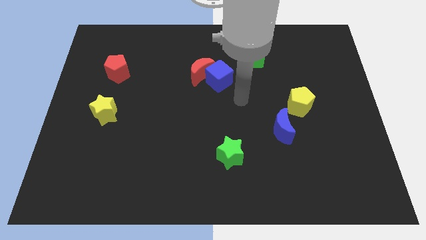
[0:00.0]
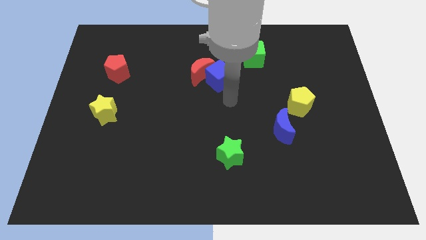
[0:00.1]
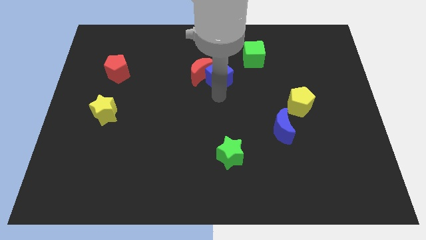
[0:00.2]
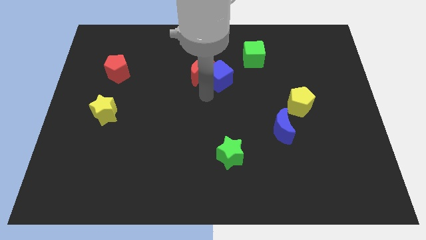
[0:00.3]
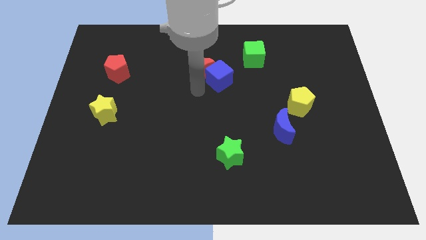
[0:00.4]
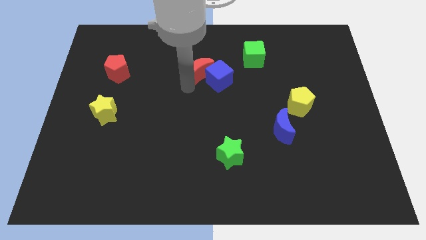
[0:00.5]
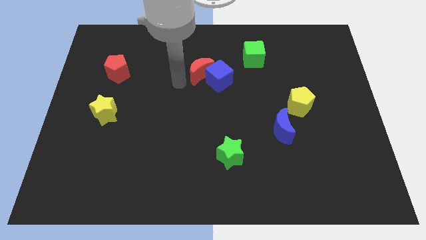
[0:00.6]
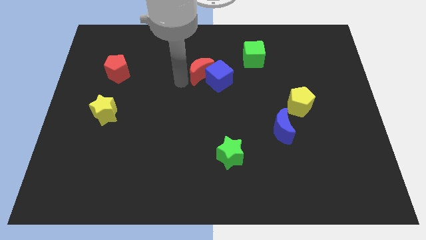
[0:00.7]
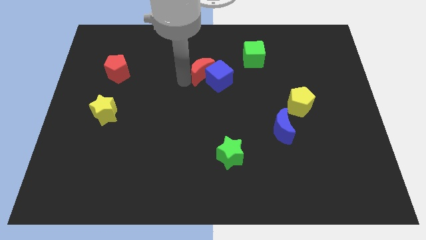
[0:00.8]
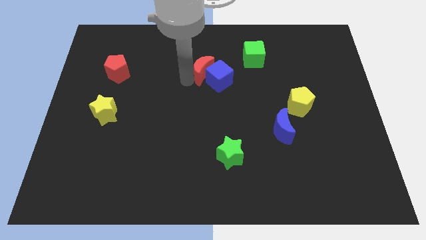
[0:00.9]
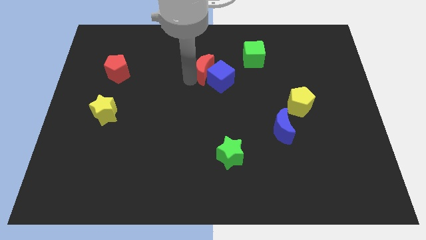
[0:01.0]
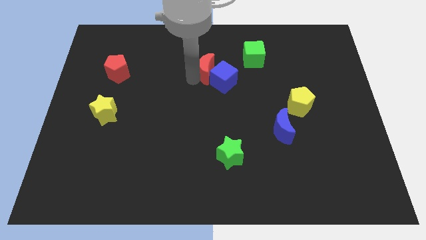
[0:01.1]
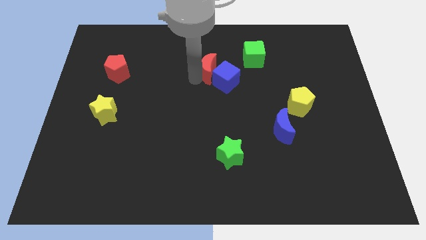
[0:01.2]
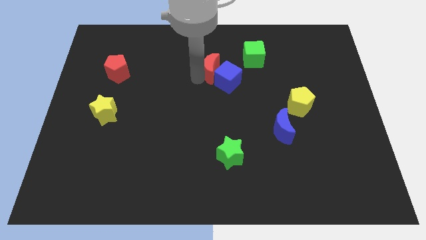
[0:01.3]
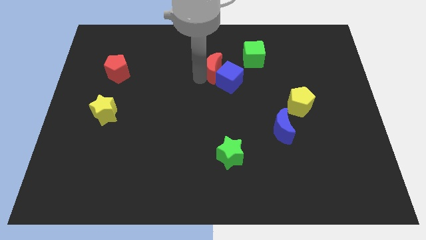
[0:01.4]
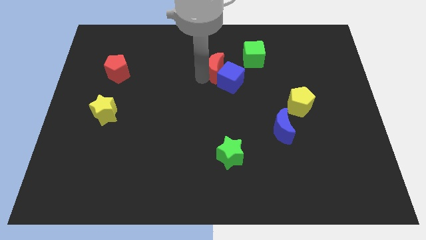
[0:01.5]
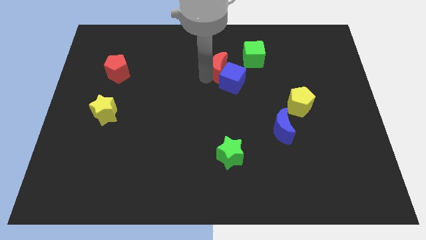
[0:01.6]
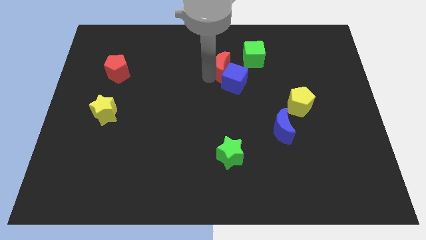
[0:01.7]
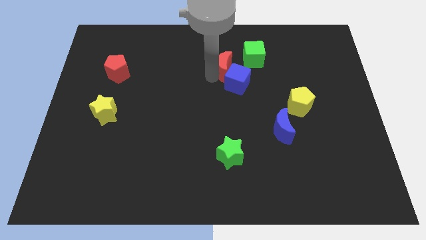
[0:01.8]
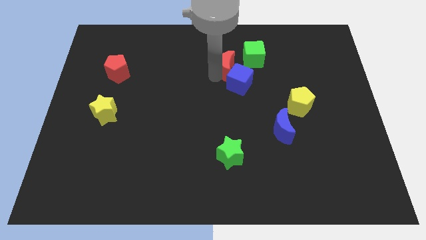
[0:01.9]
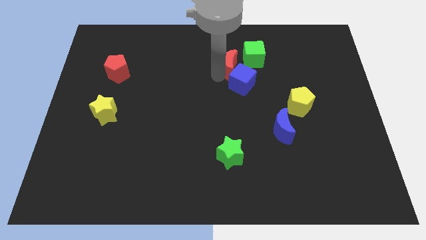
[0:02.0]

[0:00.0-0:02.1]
slightly push the red moon to the right

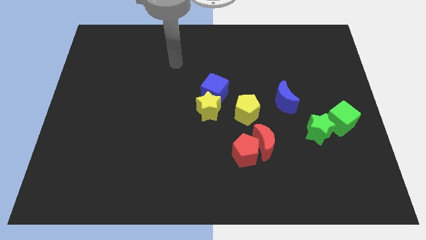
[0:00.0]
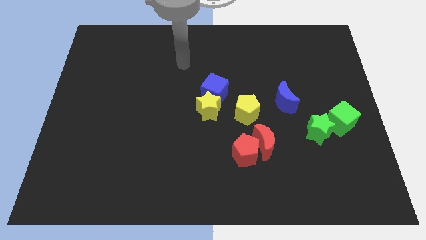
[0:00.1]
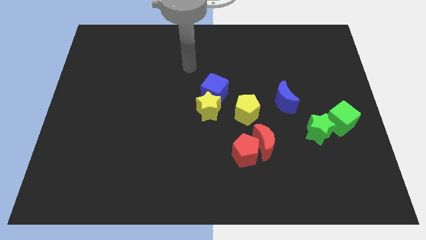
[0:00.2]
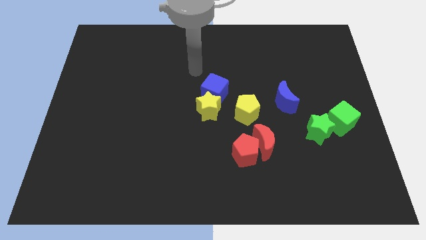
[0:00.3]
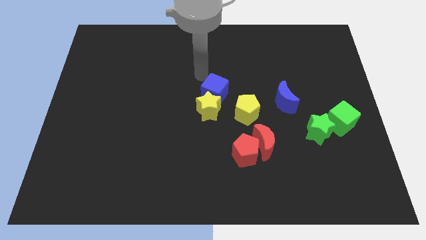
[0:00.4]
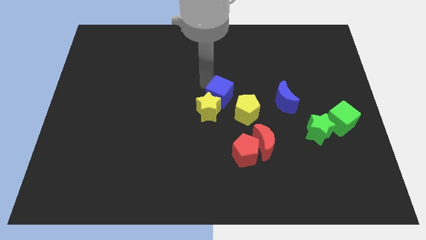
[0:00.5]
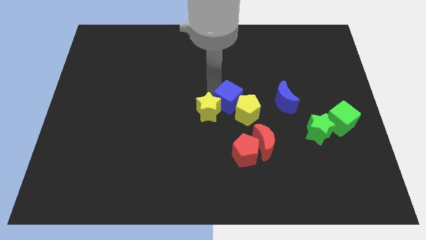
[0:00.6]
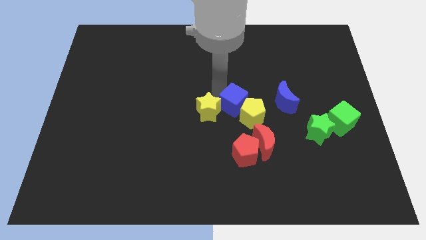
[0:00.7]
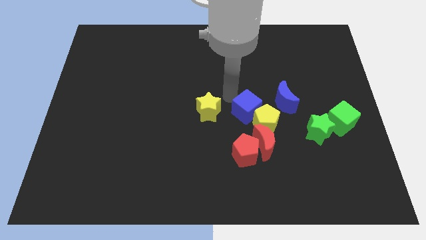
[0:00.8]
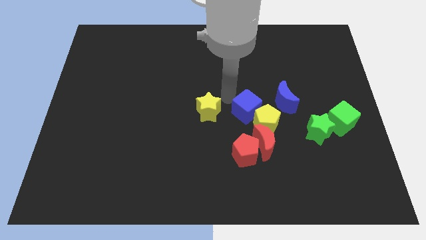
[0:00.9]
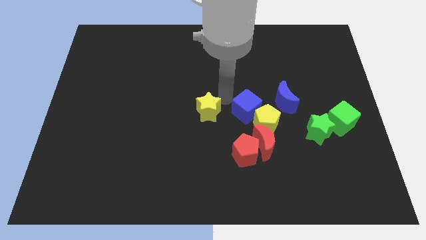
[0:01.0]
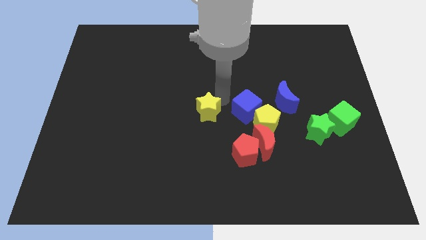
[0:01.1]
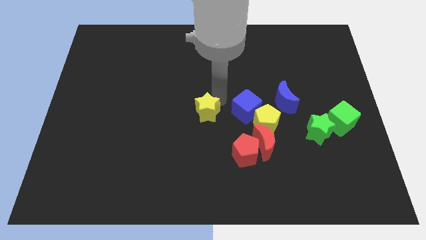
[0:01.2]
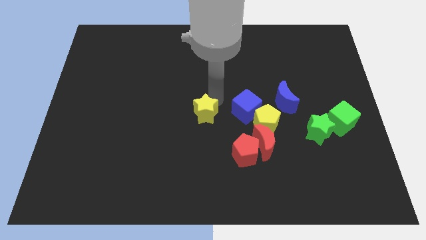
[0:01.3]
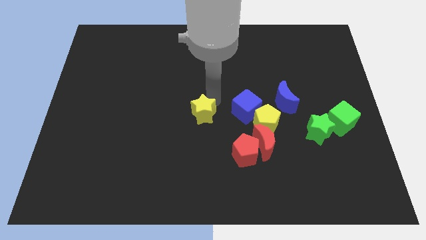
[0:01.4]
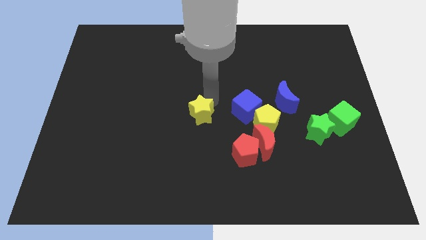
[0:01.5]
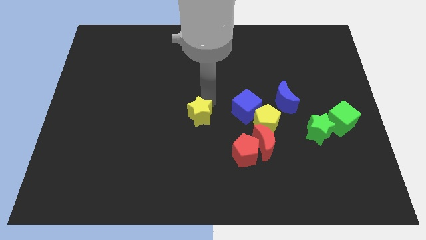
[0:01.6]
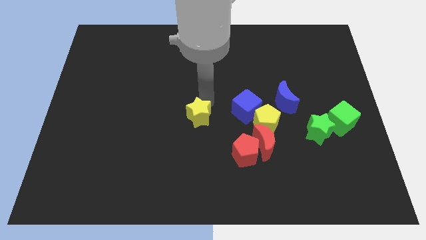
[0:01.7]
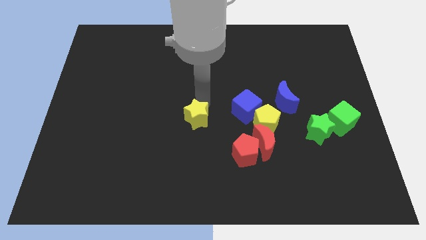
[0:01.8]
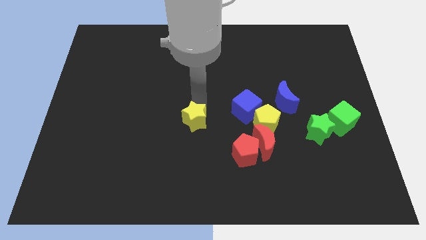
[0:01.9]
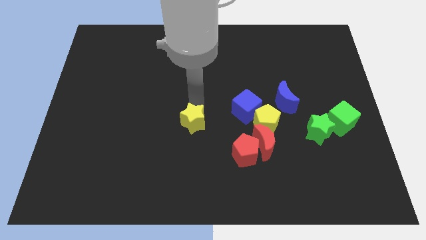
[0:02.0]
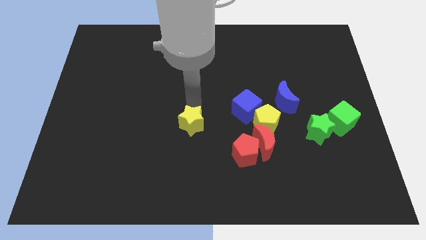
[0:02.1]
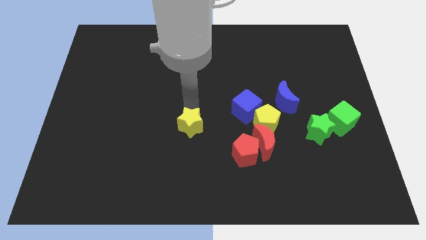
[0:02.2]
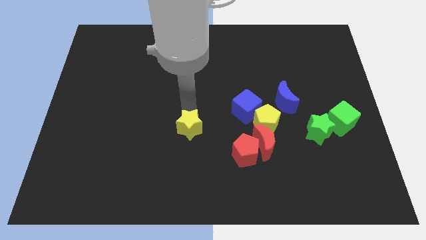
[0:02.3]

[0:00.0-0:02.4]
slightly push the yellow star down and left

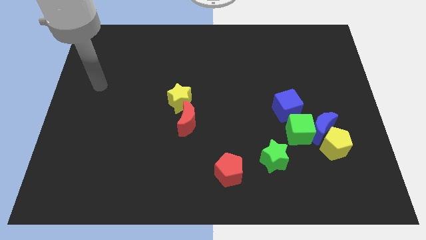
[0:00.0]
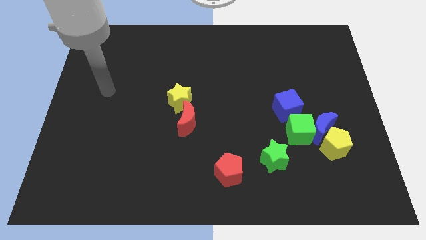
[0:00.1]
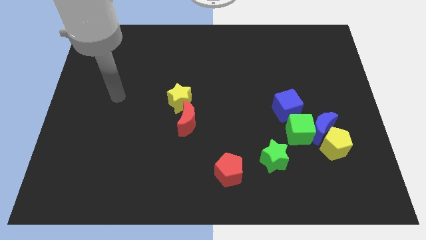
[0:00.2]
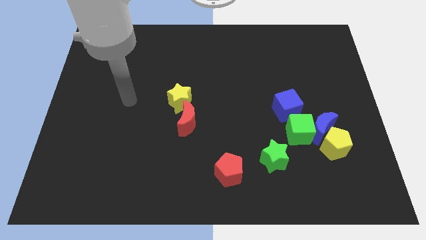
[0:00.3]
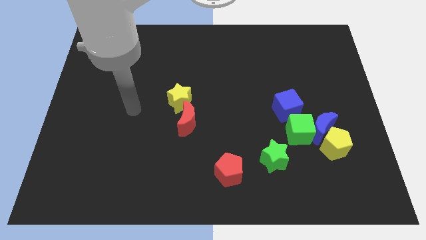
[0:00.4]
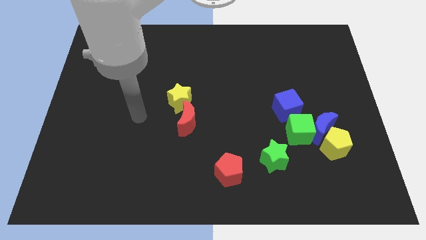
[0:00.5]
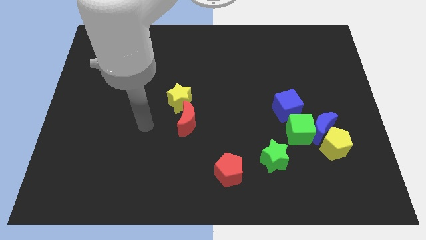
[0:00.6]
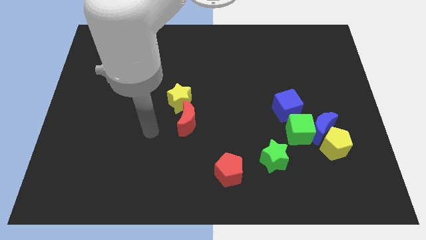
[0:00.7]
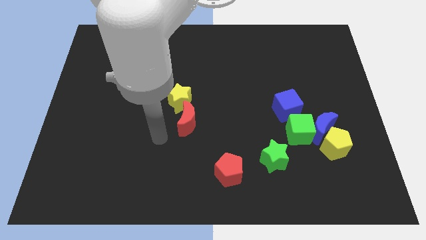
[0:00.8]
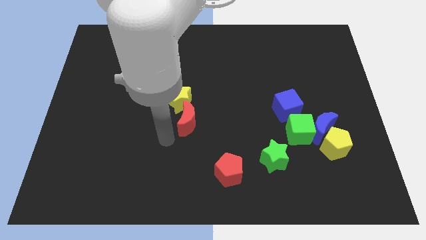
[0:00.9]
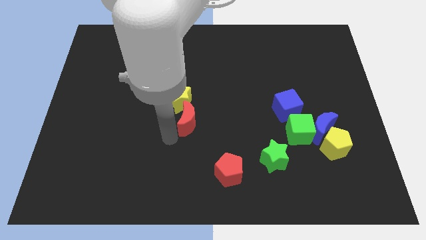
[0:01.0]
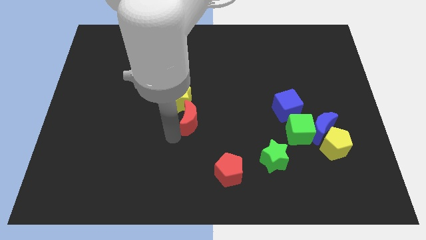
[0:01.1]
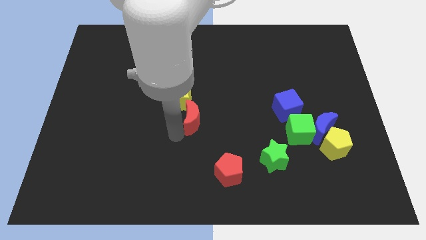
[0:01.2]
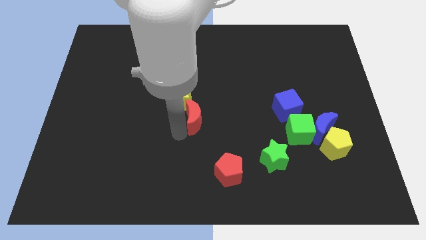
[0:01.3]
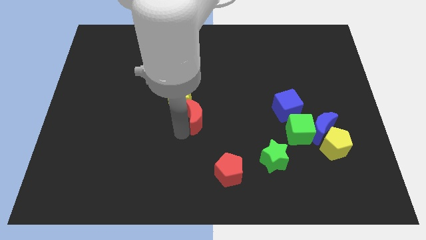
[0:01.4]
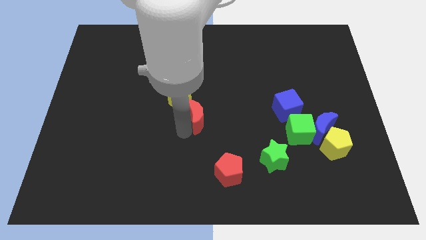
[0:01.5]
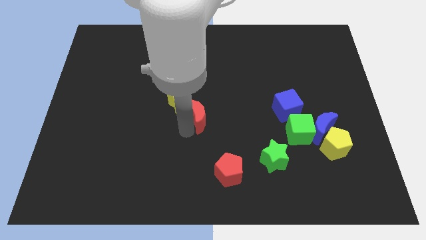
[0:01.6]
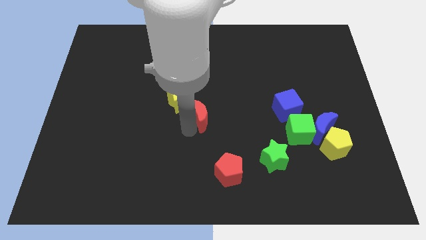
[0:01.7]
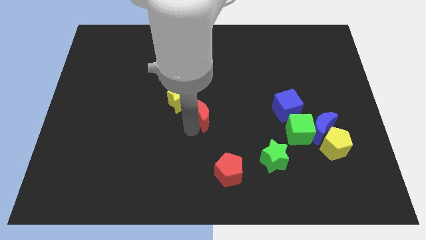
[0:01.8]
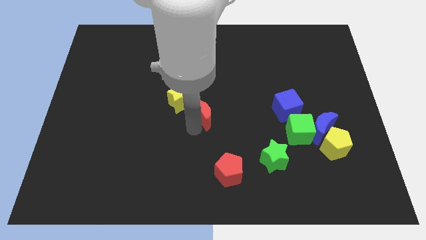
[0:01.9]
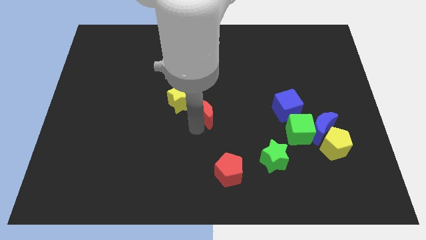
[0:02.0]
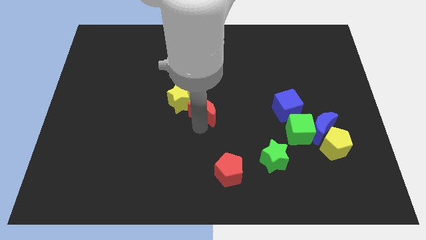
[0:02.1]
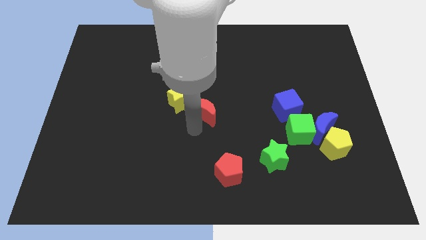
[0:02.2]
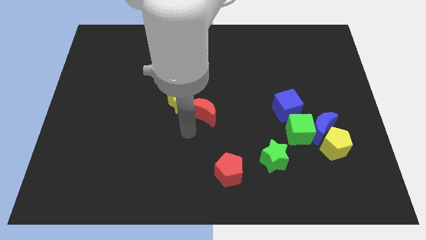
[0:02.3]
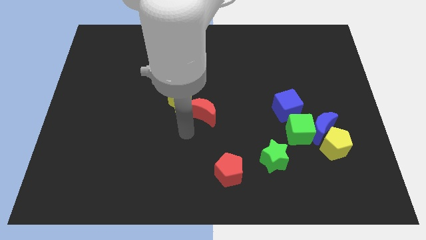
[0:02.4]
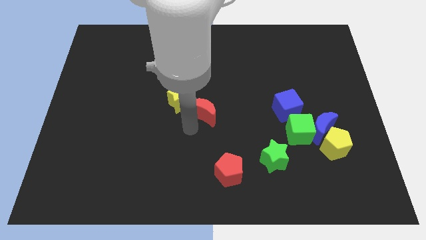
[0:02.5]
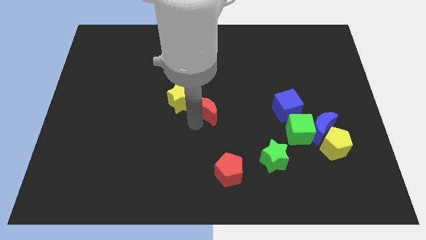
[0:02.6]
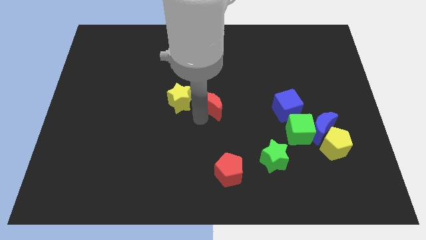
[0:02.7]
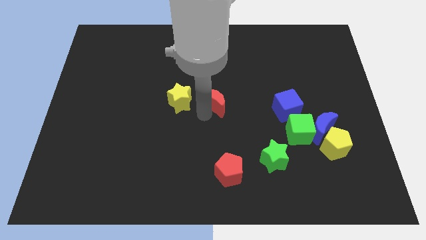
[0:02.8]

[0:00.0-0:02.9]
move the red moon diagonally up and to the right a little bit

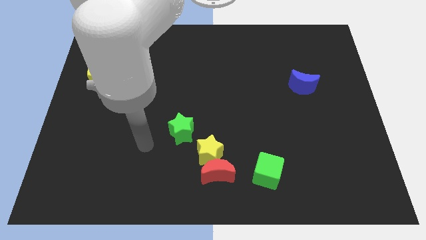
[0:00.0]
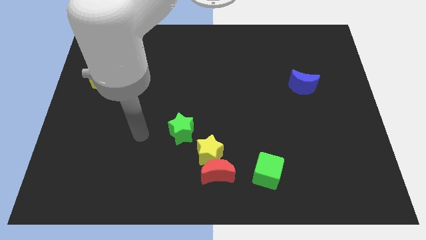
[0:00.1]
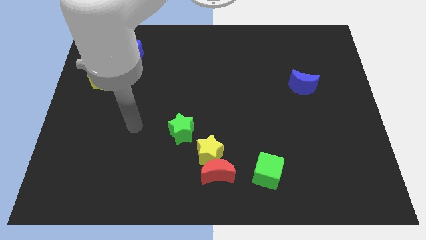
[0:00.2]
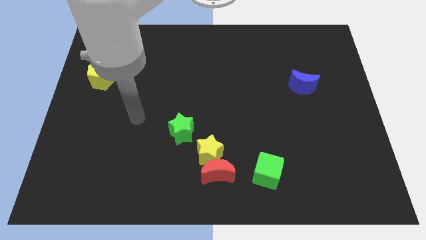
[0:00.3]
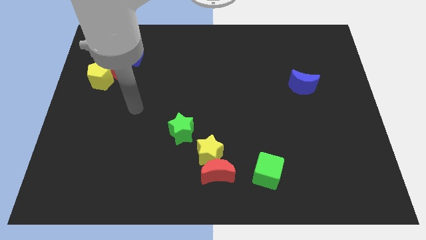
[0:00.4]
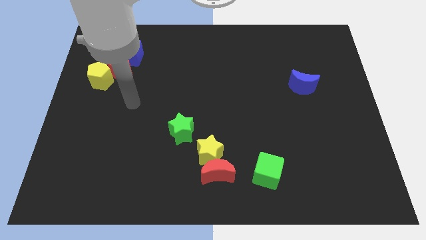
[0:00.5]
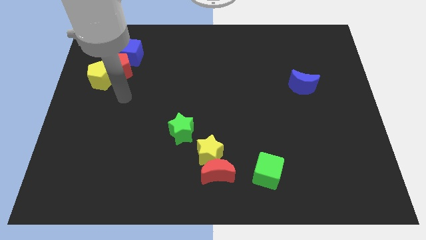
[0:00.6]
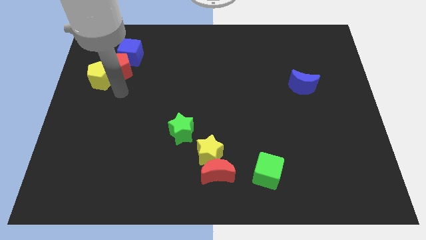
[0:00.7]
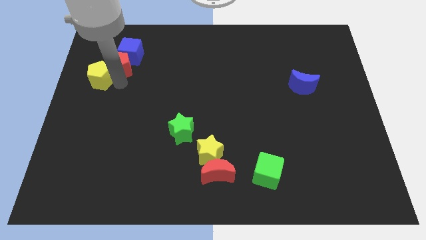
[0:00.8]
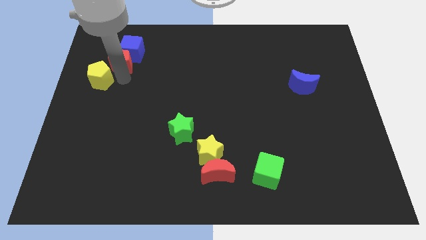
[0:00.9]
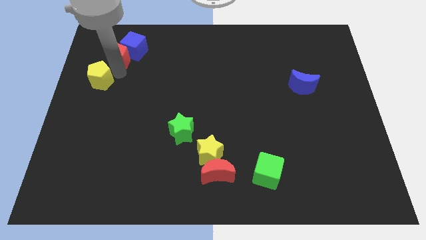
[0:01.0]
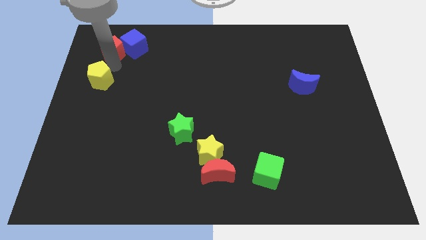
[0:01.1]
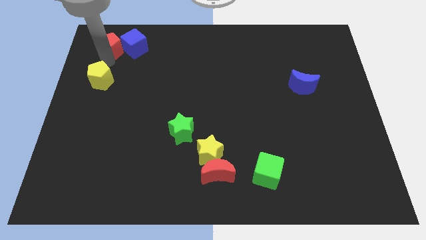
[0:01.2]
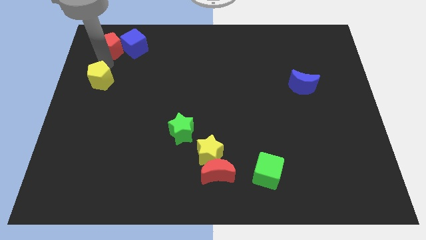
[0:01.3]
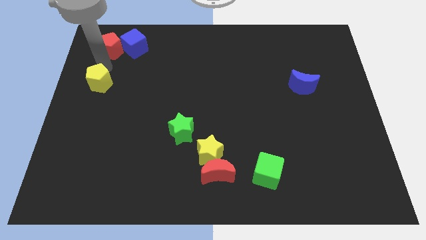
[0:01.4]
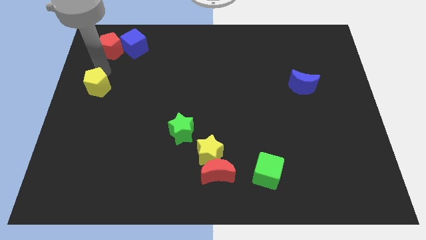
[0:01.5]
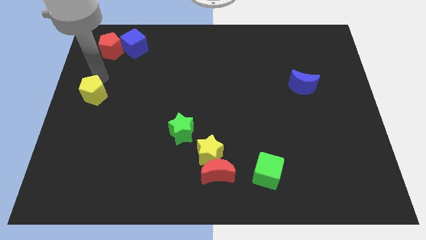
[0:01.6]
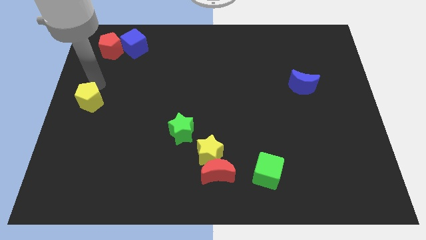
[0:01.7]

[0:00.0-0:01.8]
slide the yellow pentagon down slightly
